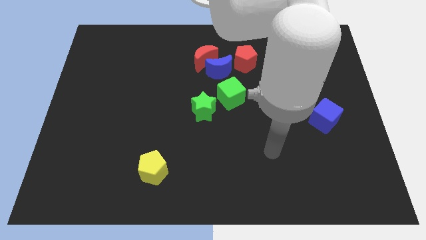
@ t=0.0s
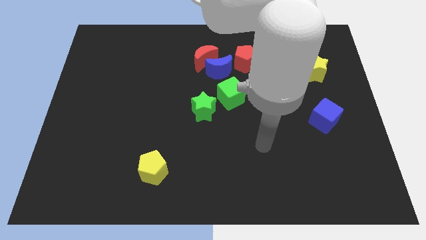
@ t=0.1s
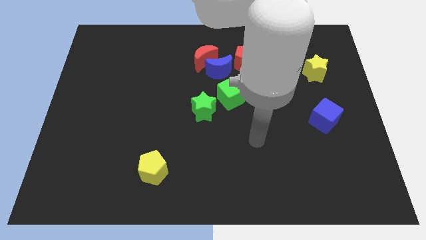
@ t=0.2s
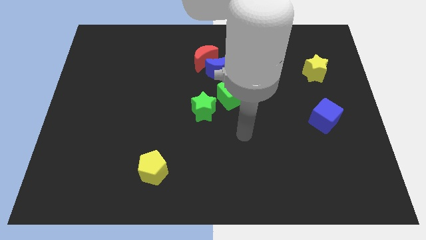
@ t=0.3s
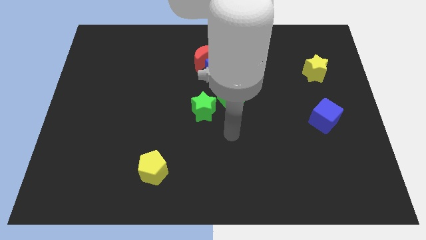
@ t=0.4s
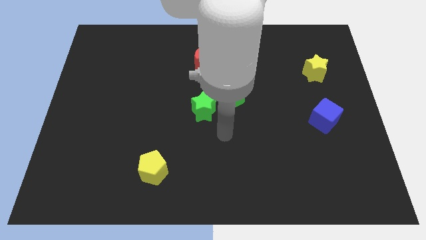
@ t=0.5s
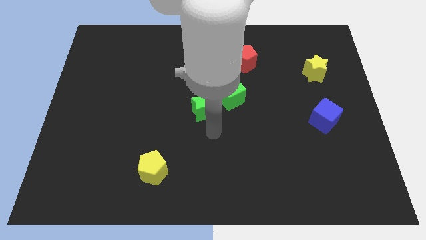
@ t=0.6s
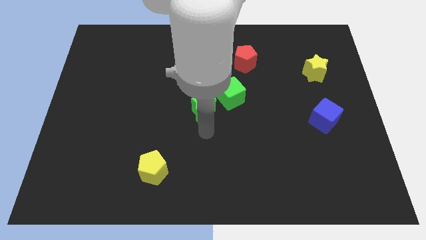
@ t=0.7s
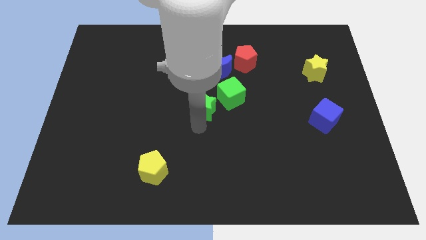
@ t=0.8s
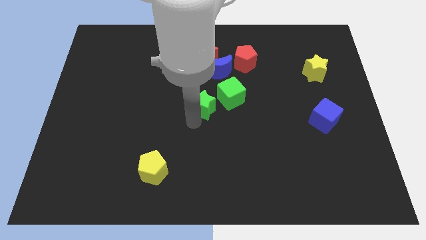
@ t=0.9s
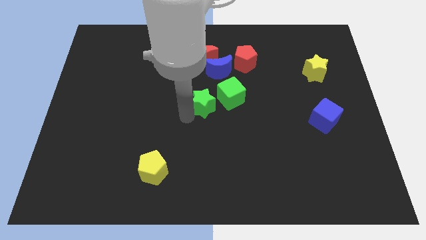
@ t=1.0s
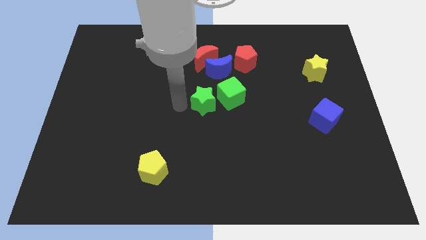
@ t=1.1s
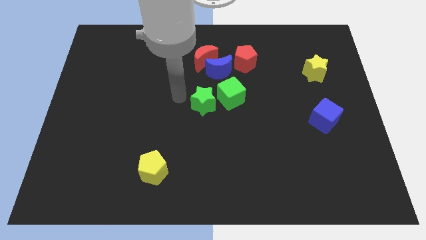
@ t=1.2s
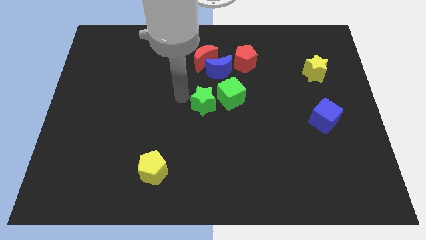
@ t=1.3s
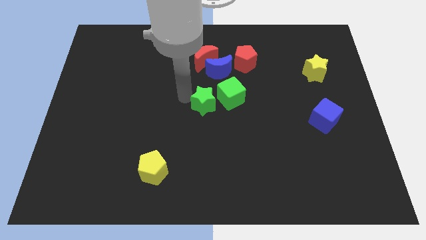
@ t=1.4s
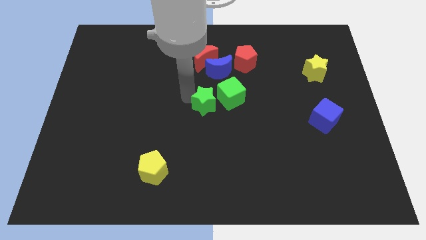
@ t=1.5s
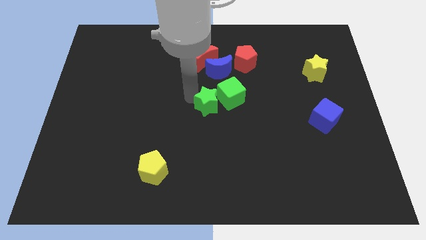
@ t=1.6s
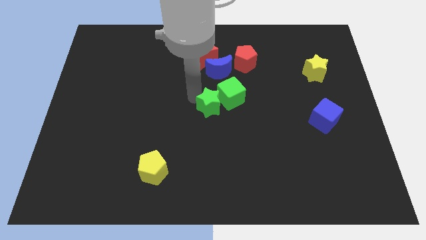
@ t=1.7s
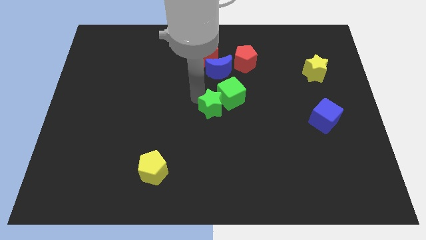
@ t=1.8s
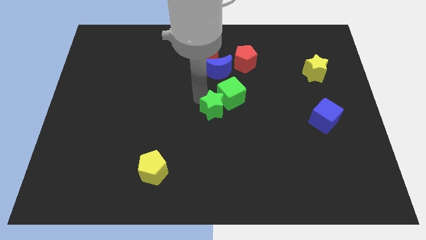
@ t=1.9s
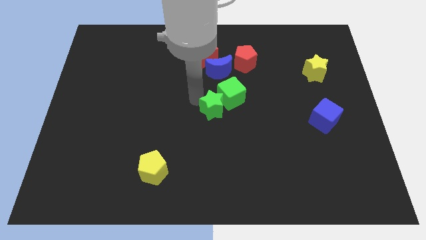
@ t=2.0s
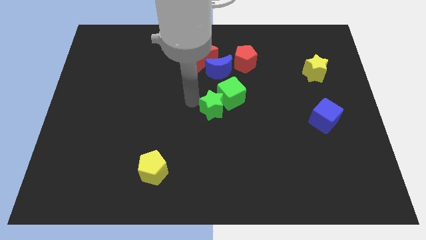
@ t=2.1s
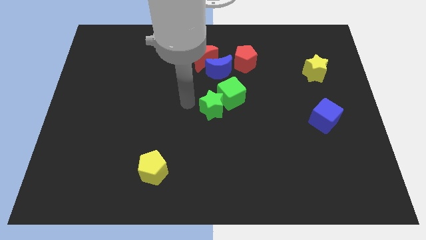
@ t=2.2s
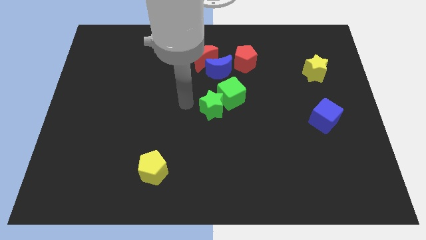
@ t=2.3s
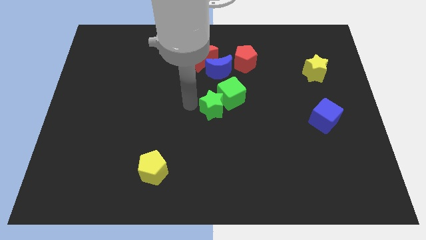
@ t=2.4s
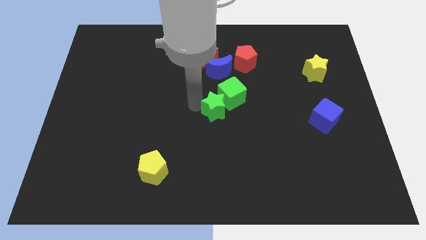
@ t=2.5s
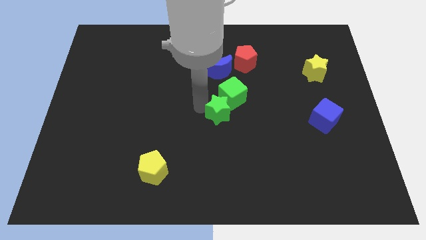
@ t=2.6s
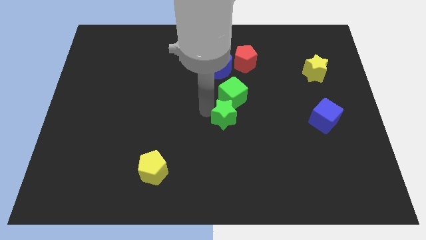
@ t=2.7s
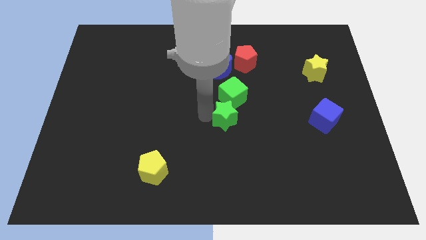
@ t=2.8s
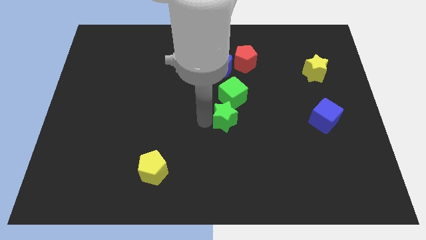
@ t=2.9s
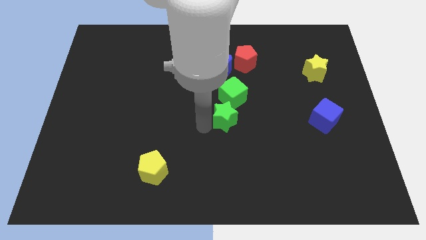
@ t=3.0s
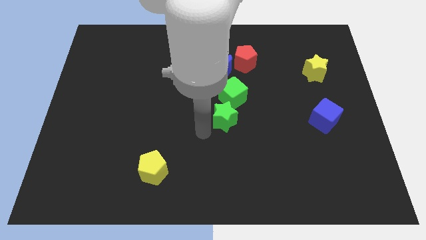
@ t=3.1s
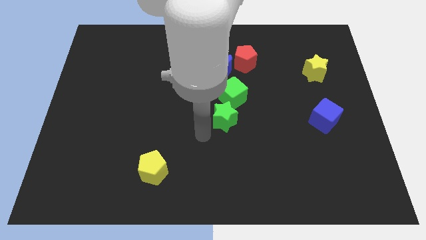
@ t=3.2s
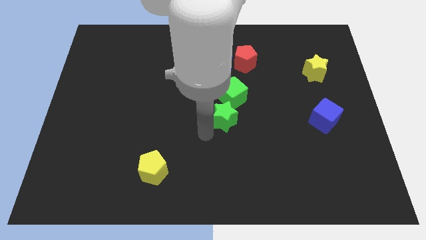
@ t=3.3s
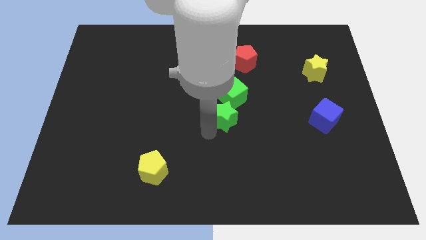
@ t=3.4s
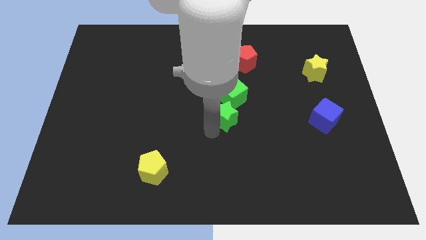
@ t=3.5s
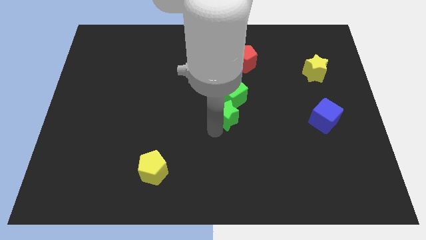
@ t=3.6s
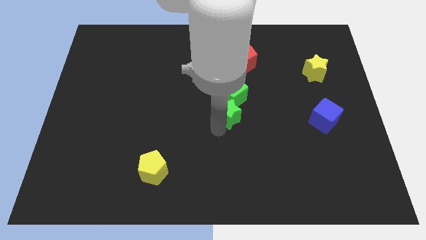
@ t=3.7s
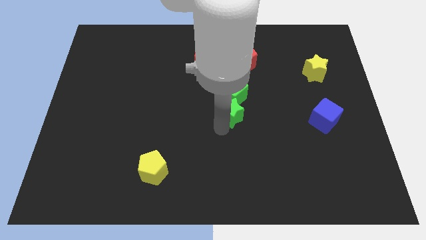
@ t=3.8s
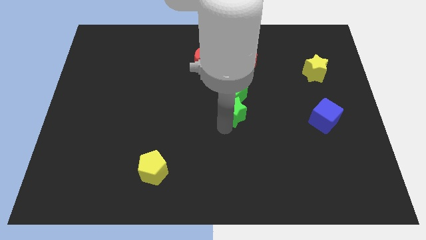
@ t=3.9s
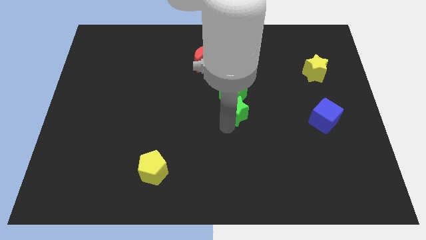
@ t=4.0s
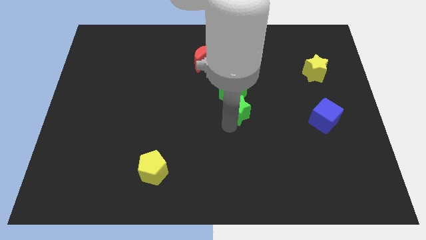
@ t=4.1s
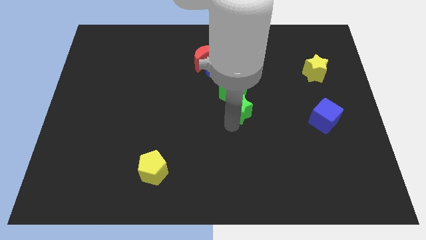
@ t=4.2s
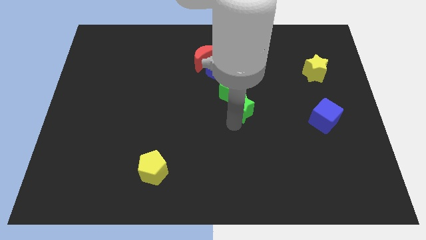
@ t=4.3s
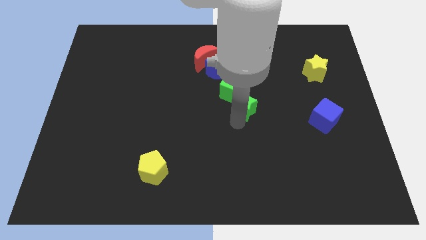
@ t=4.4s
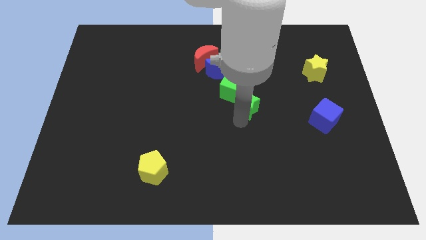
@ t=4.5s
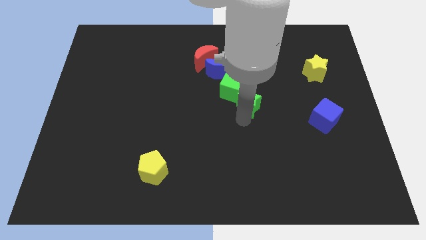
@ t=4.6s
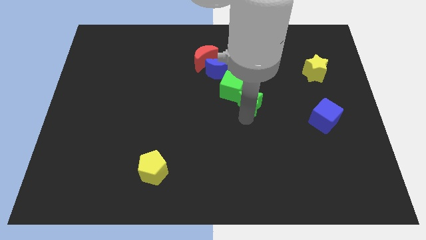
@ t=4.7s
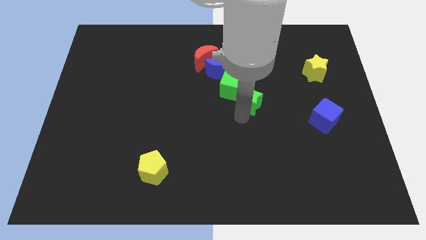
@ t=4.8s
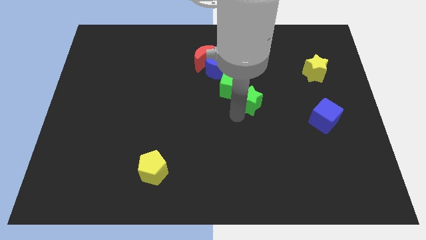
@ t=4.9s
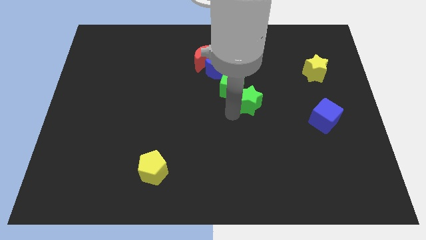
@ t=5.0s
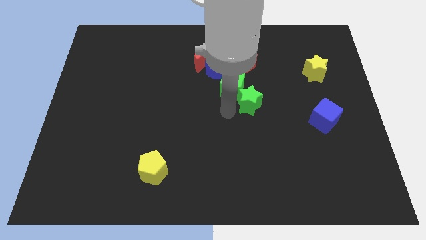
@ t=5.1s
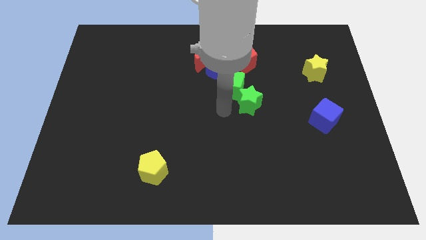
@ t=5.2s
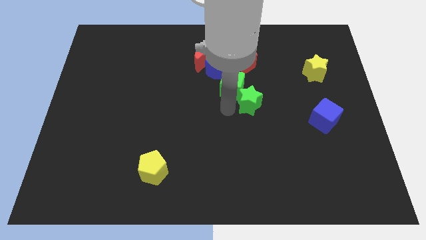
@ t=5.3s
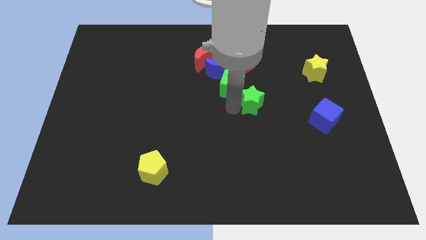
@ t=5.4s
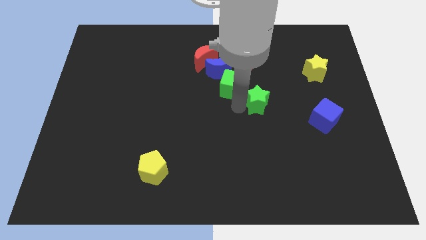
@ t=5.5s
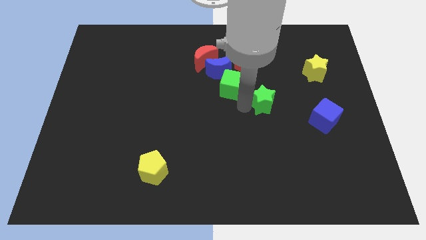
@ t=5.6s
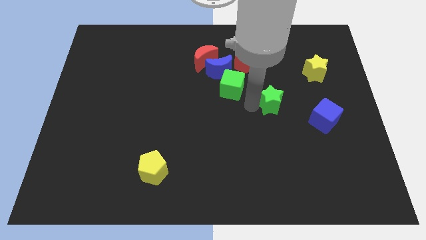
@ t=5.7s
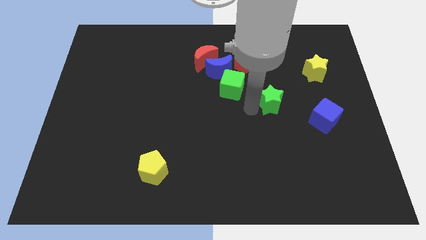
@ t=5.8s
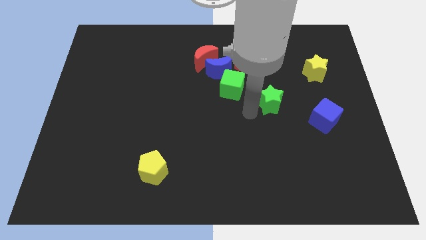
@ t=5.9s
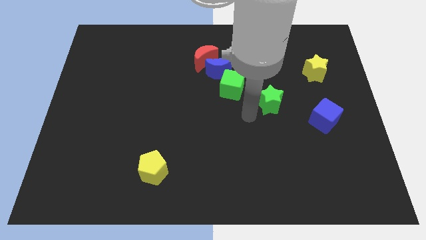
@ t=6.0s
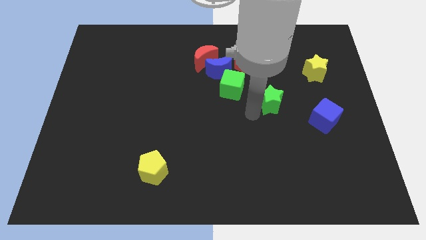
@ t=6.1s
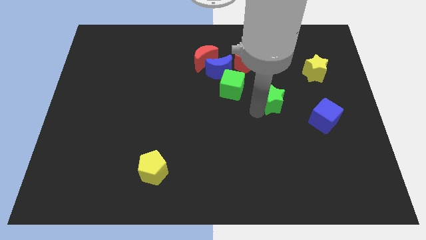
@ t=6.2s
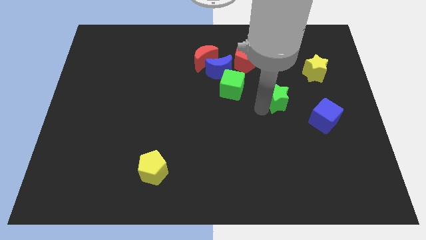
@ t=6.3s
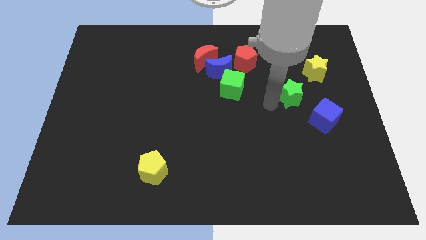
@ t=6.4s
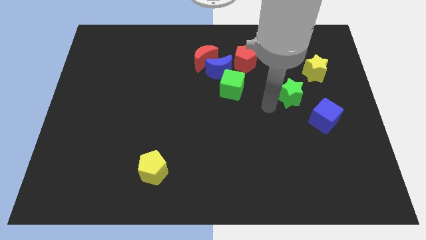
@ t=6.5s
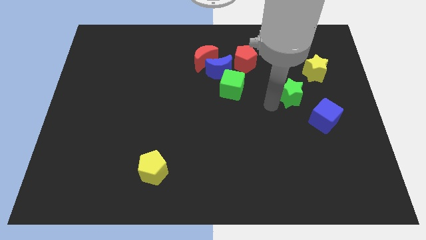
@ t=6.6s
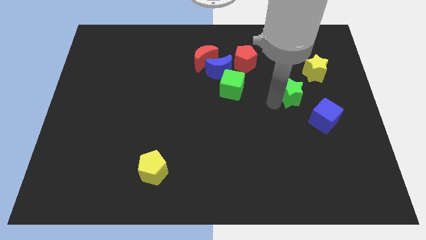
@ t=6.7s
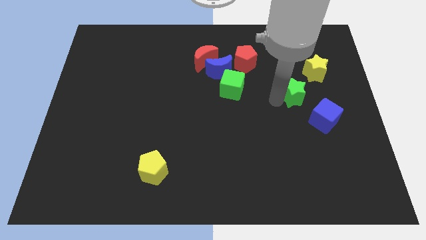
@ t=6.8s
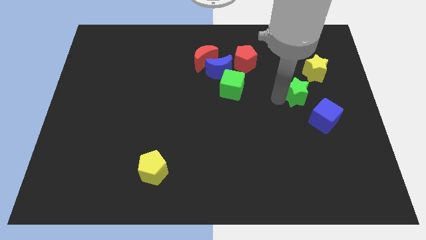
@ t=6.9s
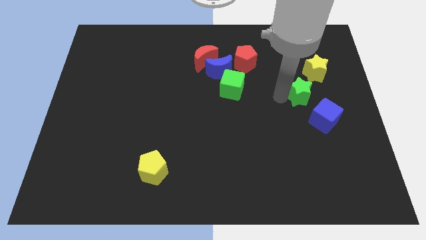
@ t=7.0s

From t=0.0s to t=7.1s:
push the green star above the blue cube

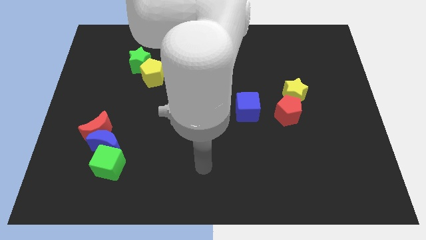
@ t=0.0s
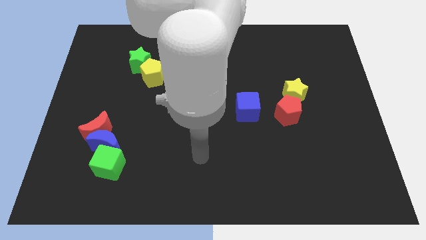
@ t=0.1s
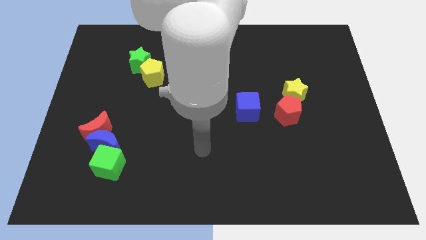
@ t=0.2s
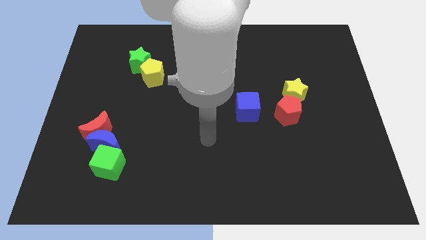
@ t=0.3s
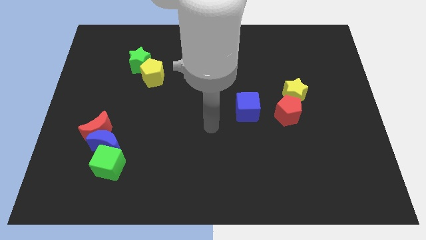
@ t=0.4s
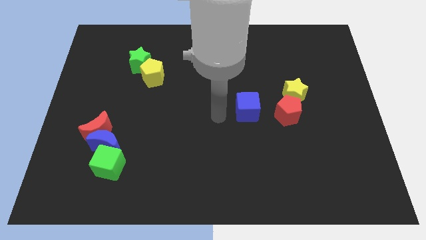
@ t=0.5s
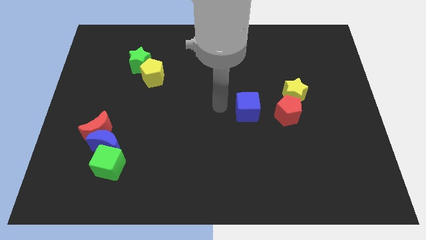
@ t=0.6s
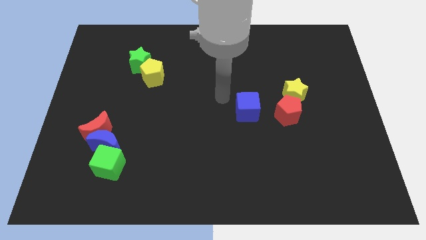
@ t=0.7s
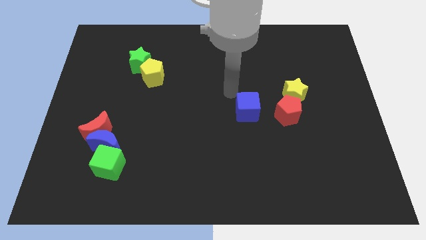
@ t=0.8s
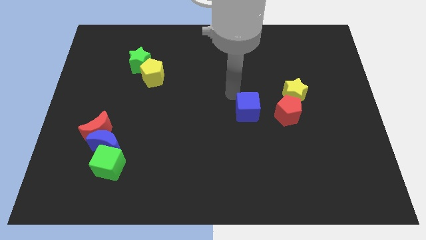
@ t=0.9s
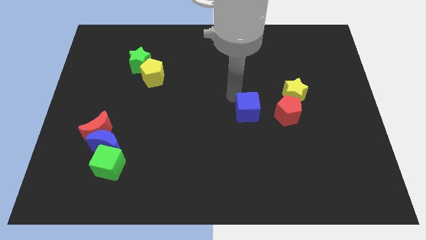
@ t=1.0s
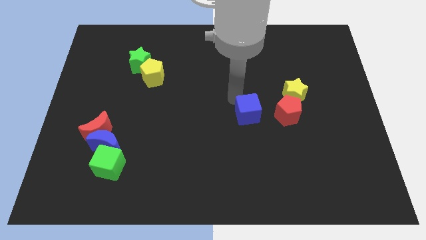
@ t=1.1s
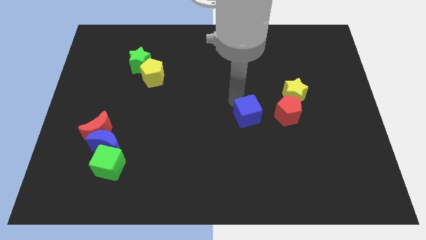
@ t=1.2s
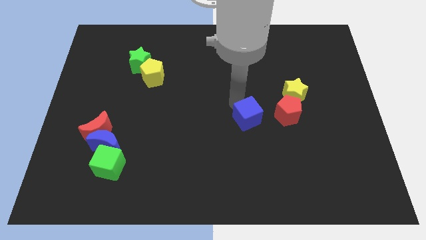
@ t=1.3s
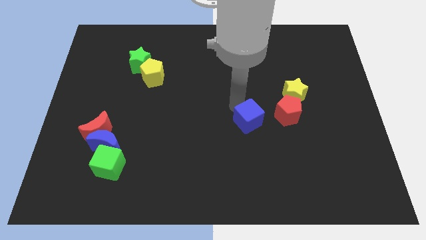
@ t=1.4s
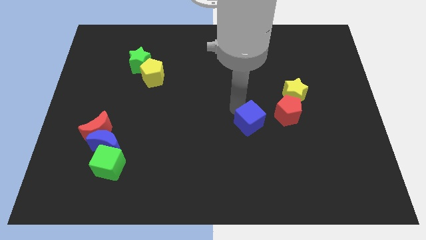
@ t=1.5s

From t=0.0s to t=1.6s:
put the blue cube to the bottom left of the red pentagon
